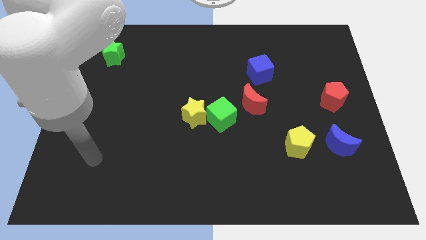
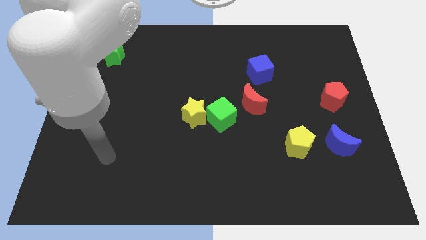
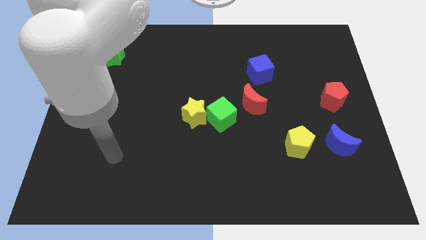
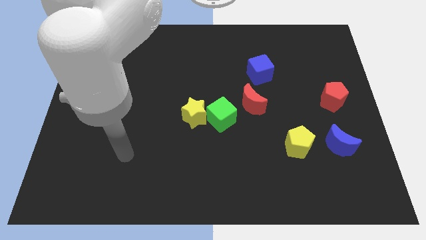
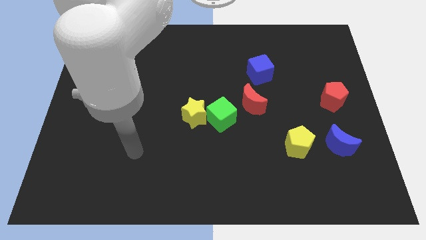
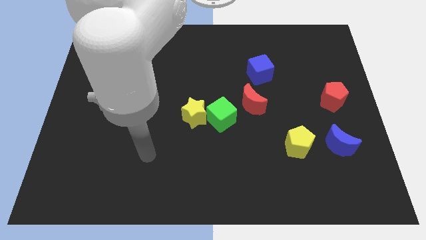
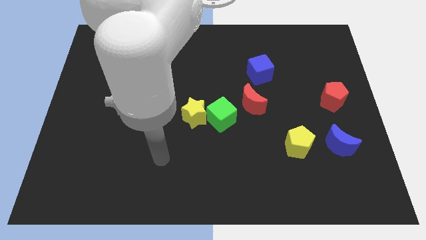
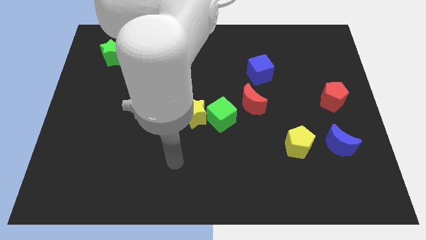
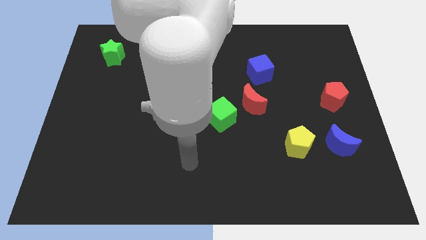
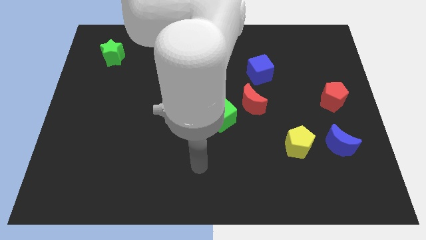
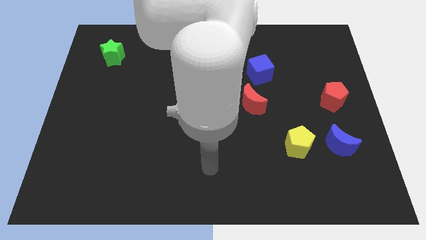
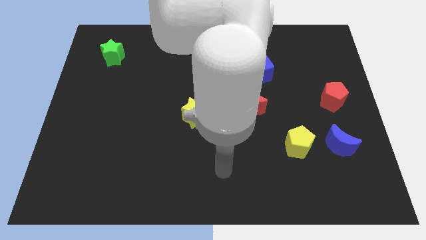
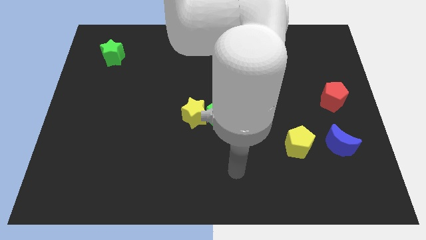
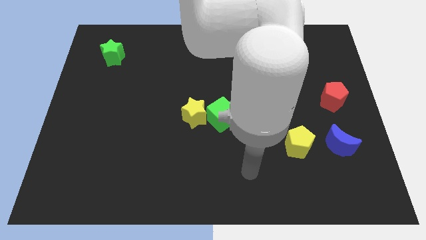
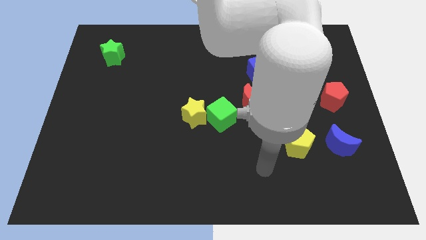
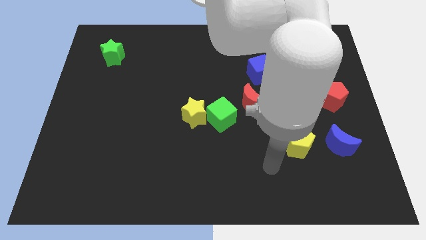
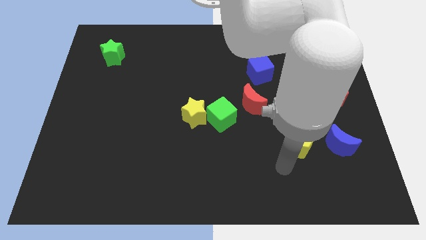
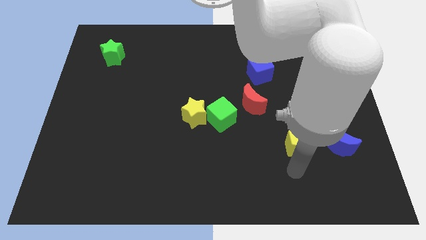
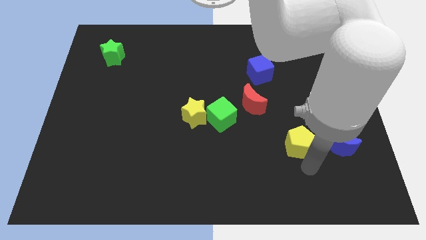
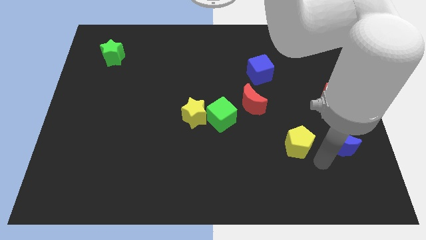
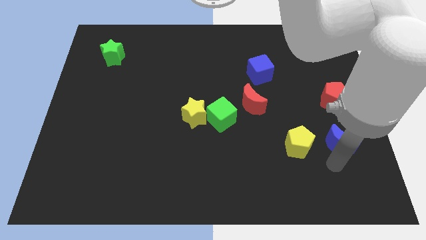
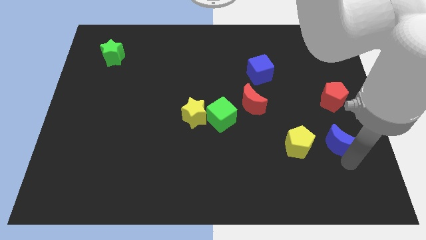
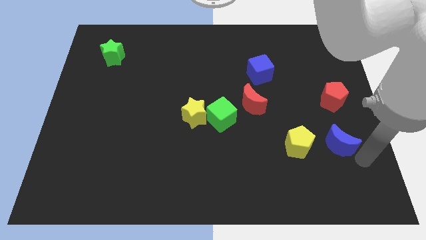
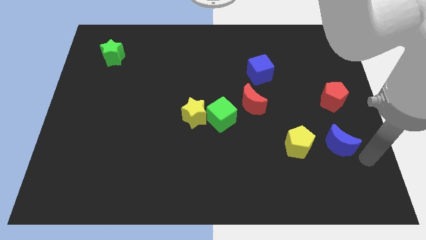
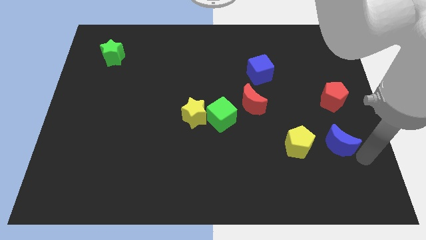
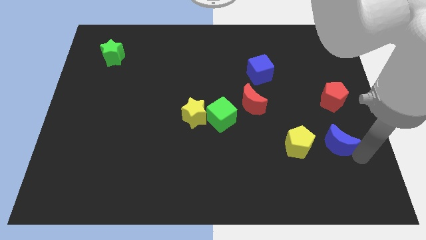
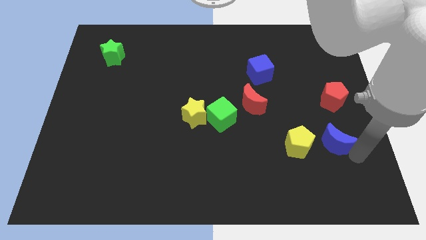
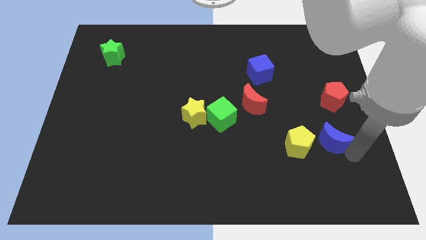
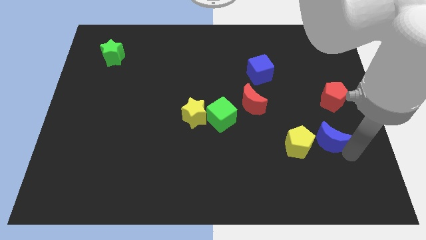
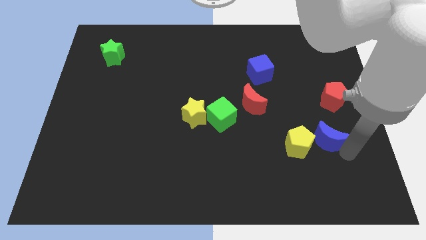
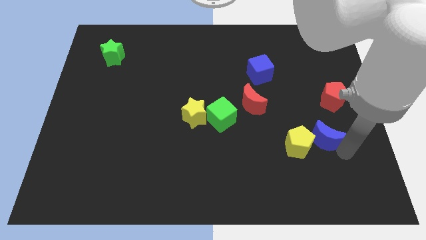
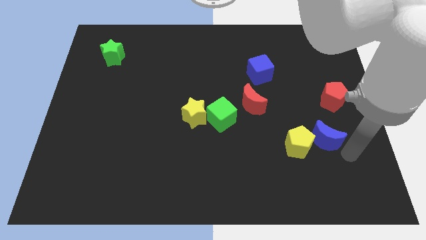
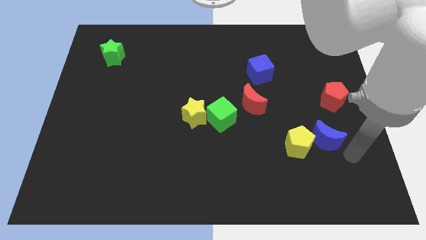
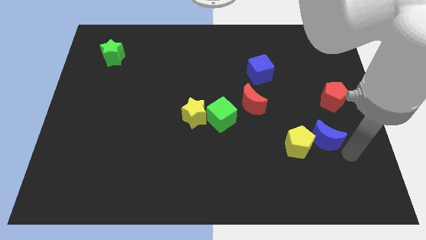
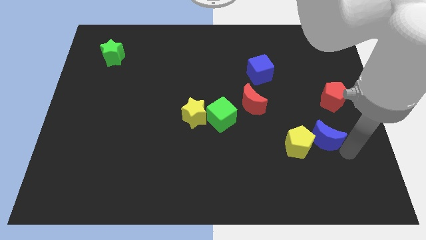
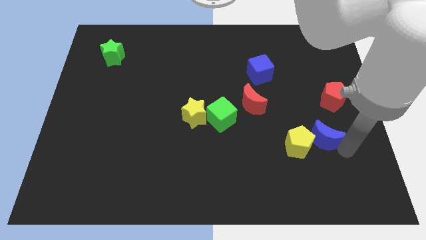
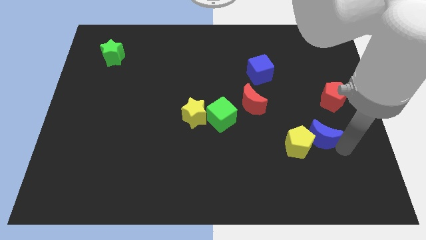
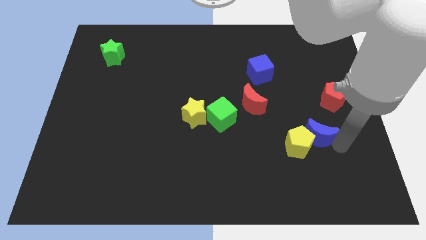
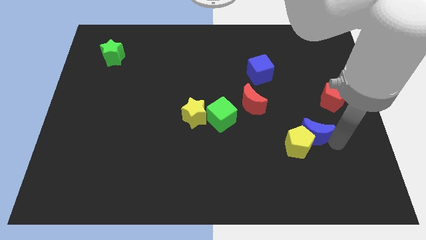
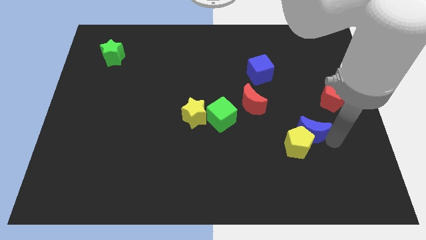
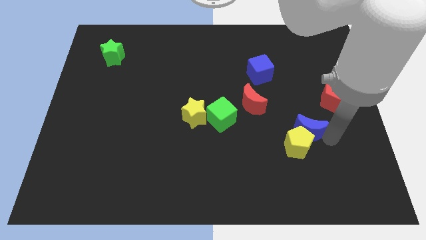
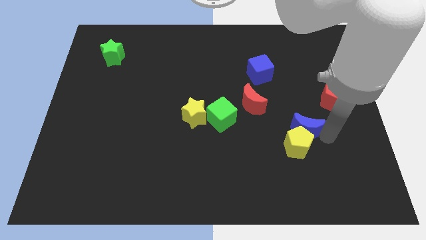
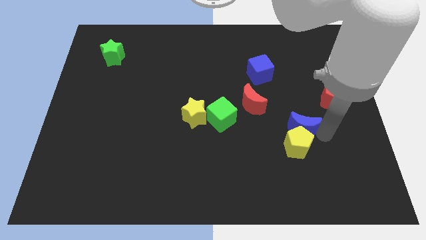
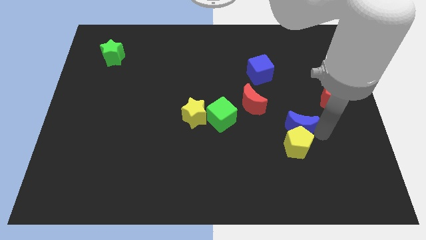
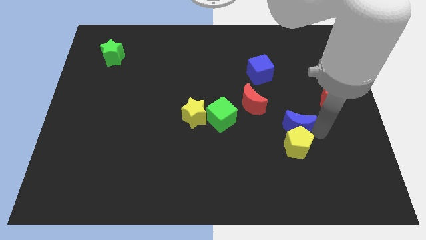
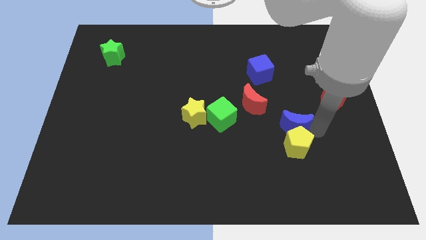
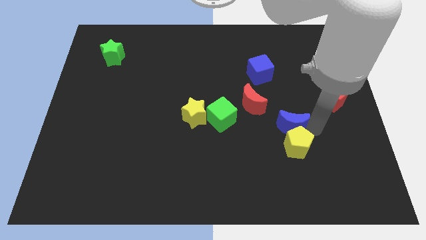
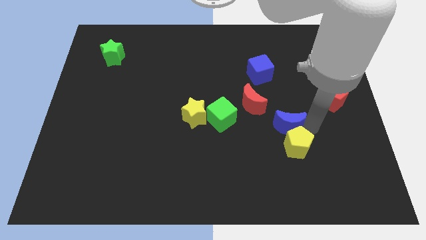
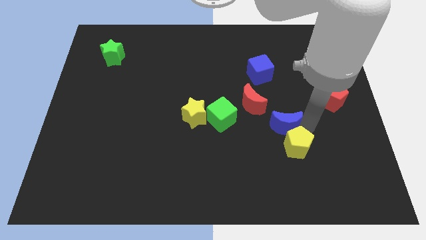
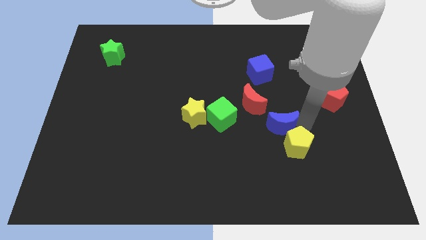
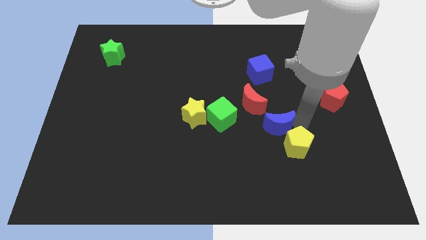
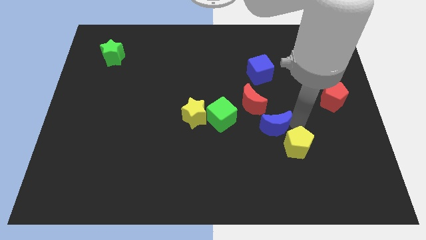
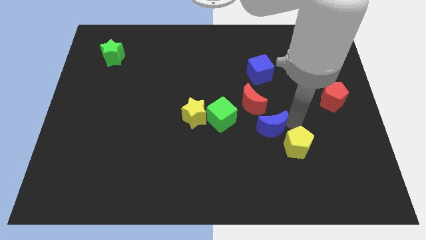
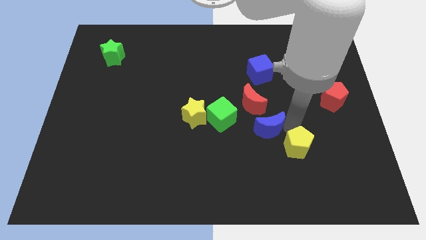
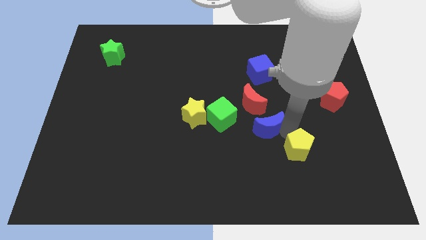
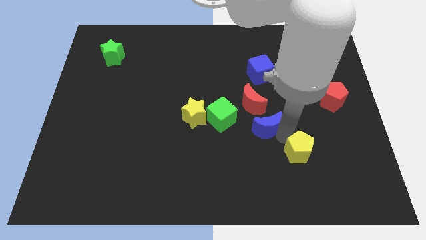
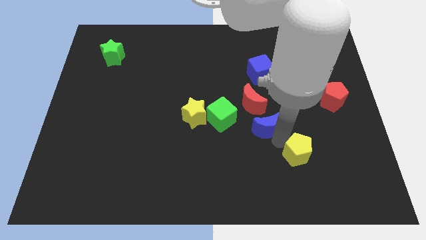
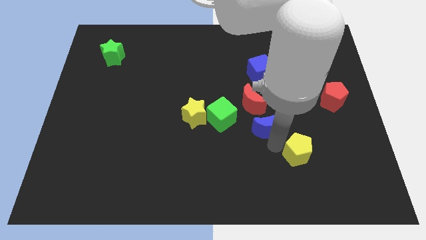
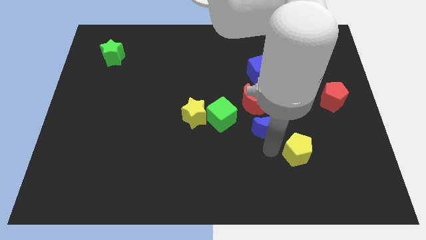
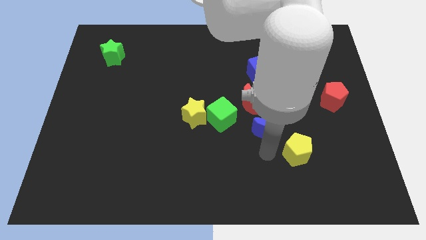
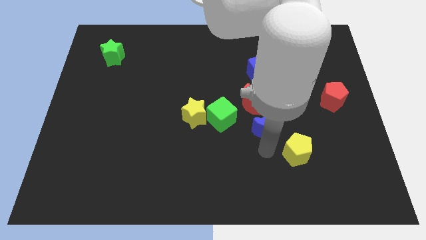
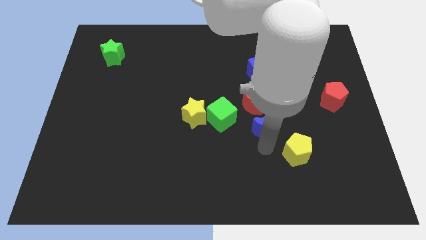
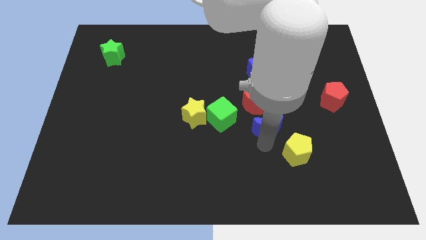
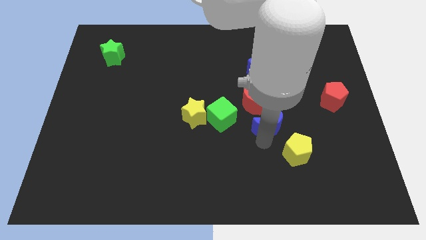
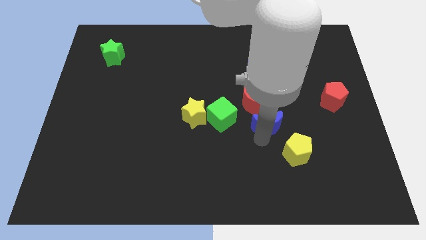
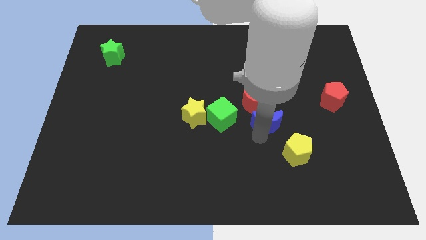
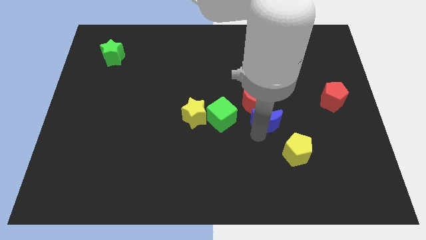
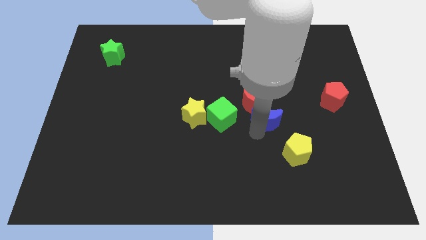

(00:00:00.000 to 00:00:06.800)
slide the blue moon to the red moon
